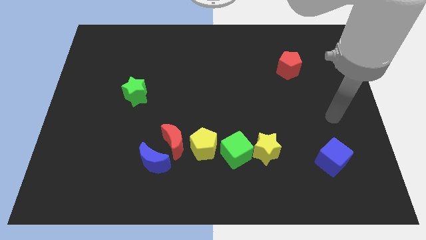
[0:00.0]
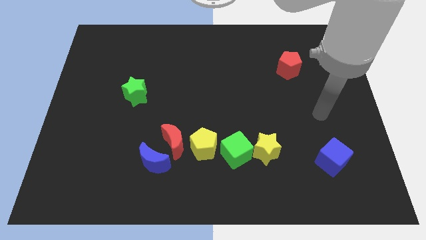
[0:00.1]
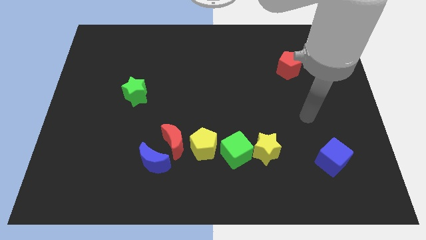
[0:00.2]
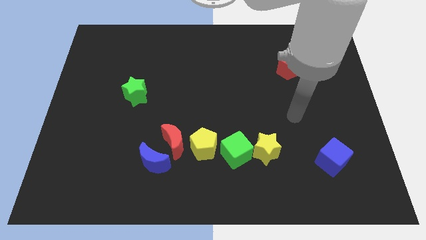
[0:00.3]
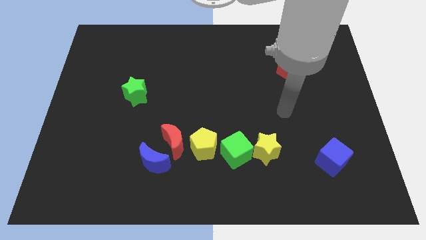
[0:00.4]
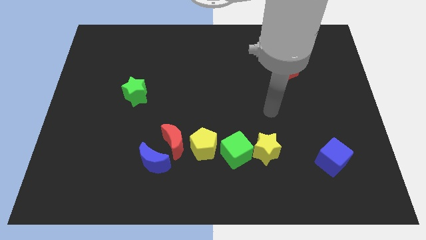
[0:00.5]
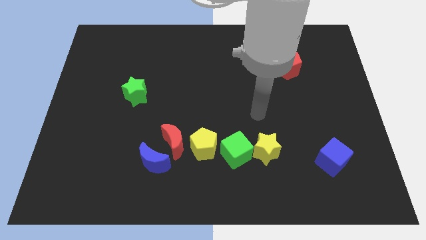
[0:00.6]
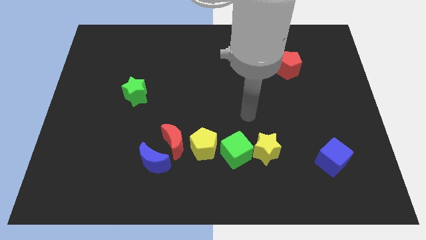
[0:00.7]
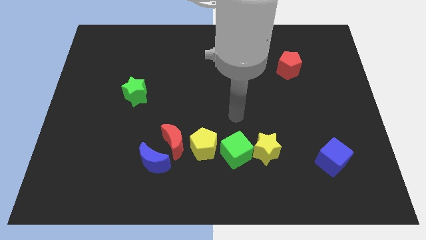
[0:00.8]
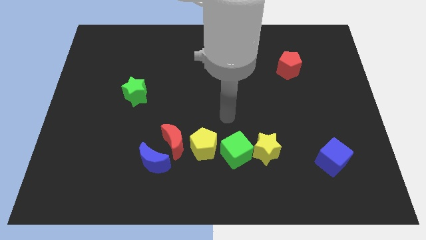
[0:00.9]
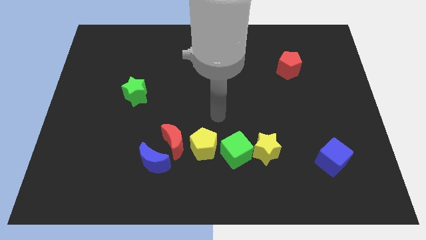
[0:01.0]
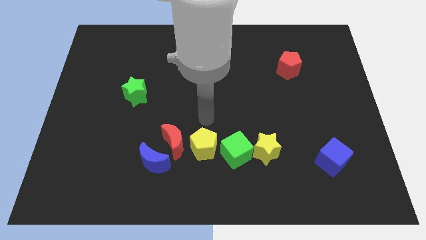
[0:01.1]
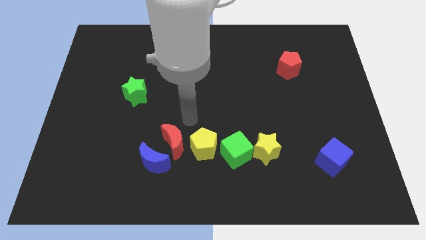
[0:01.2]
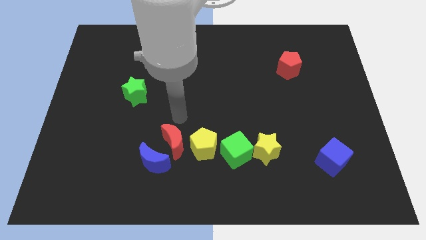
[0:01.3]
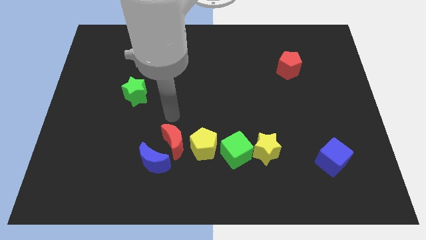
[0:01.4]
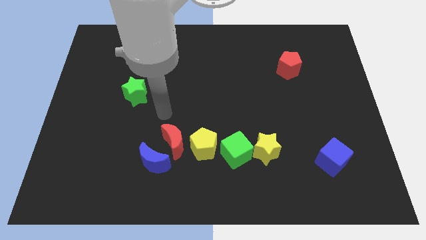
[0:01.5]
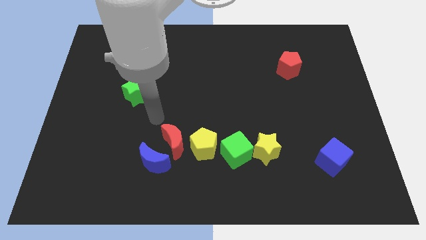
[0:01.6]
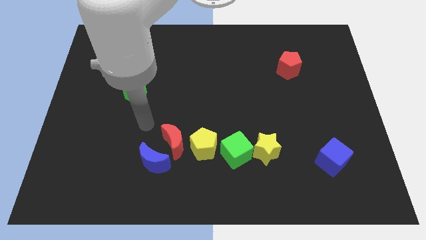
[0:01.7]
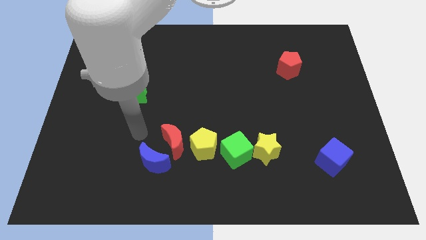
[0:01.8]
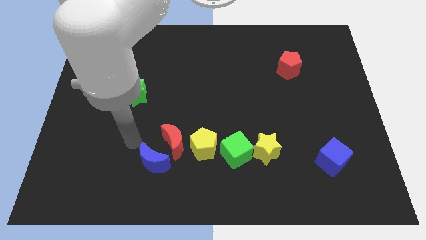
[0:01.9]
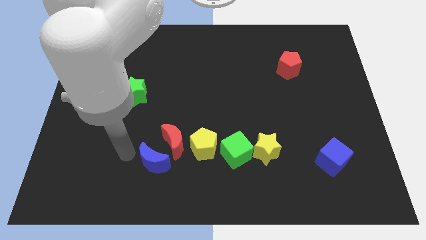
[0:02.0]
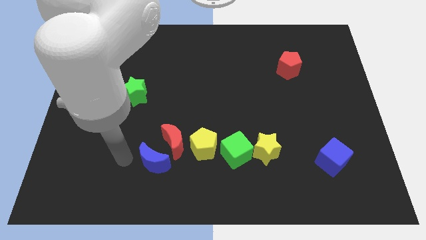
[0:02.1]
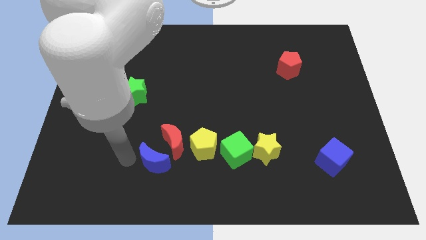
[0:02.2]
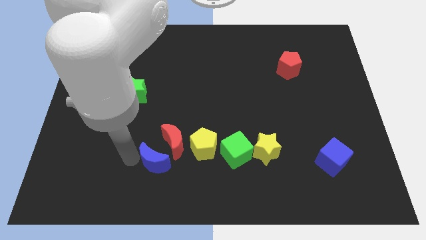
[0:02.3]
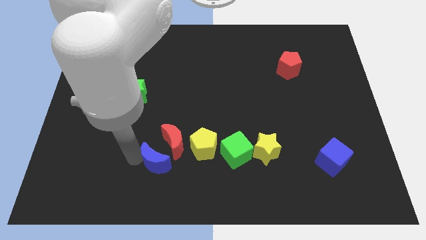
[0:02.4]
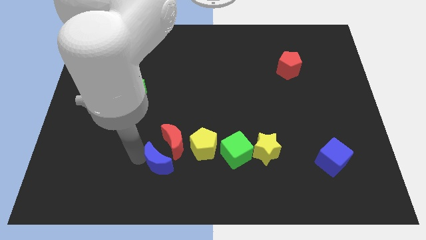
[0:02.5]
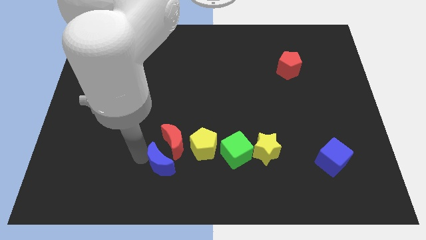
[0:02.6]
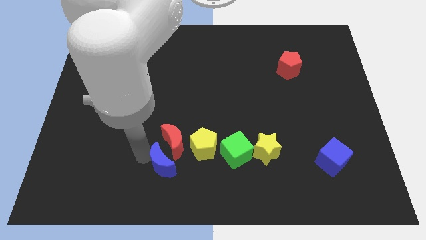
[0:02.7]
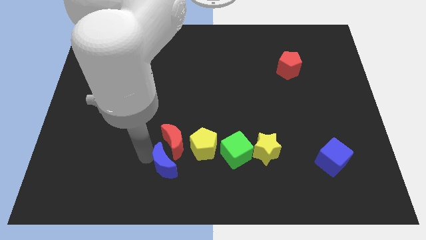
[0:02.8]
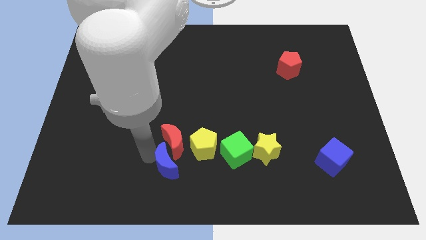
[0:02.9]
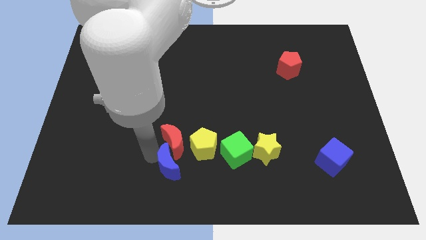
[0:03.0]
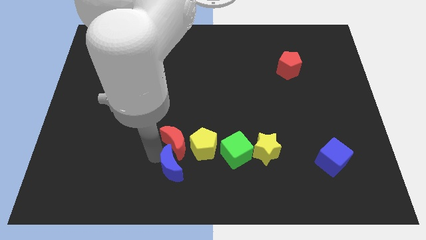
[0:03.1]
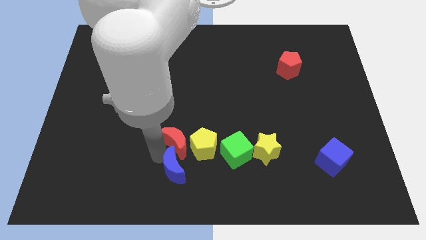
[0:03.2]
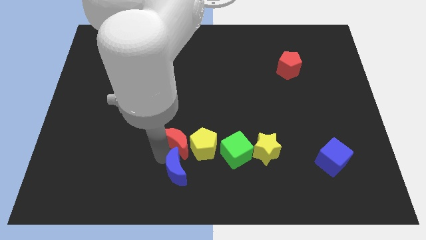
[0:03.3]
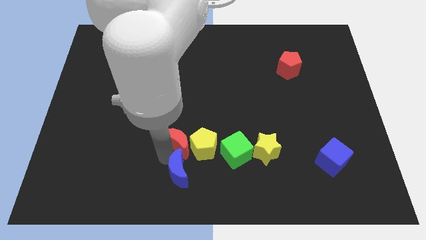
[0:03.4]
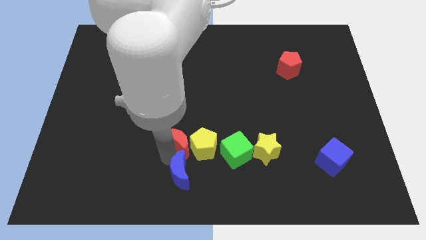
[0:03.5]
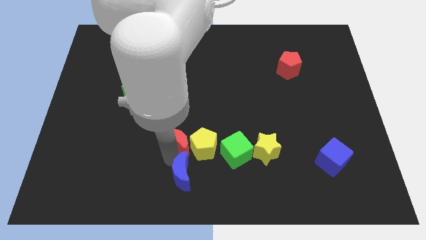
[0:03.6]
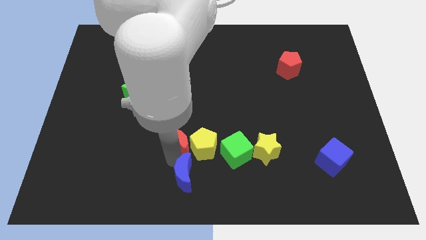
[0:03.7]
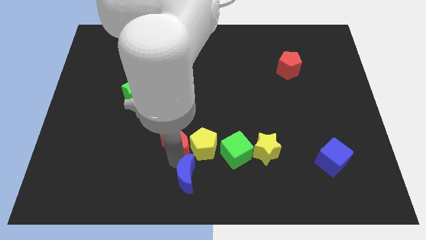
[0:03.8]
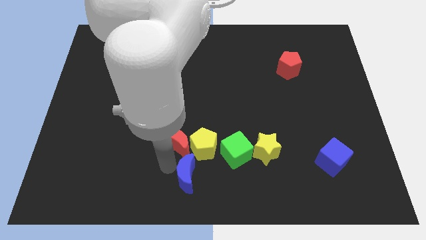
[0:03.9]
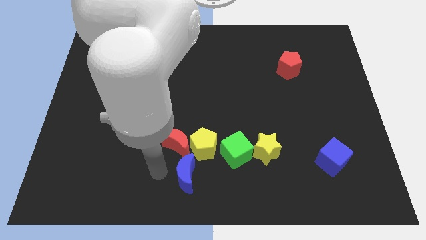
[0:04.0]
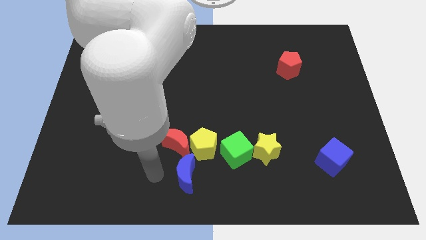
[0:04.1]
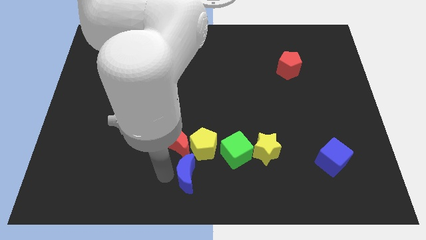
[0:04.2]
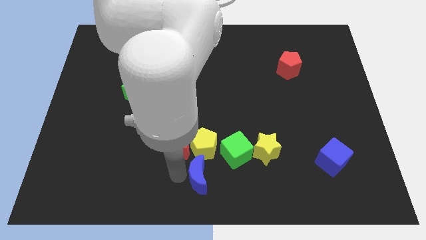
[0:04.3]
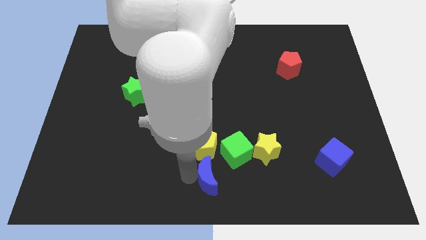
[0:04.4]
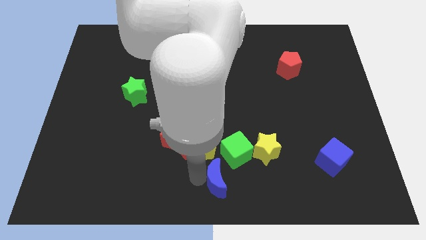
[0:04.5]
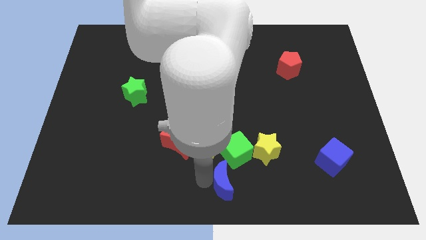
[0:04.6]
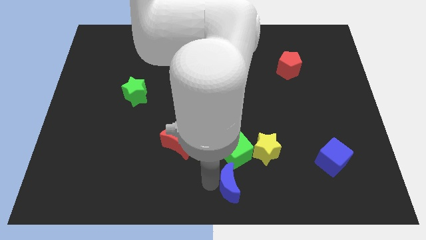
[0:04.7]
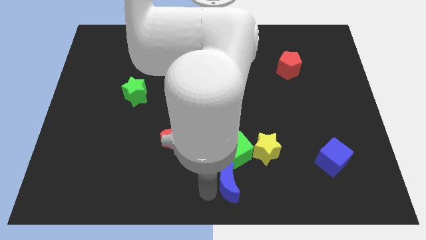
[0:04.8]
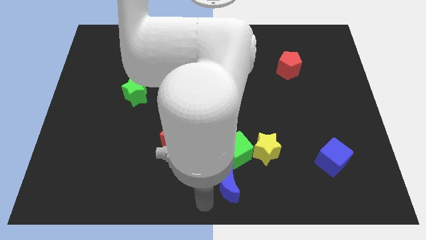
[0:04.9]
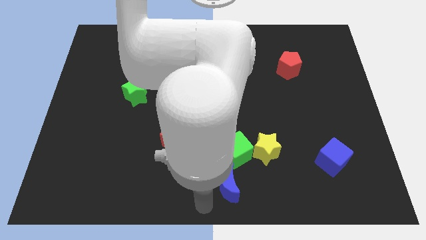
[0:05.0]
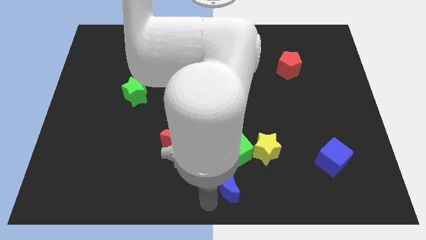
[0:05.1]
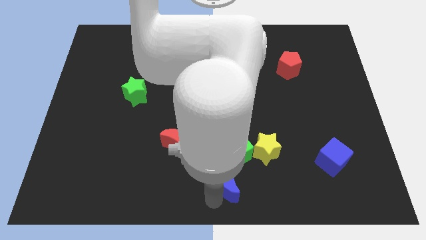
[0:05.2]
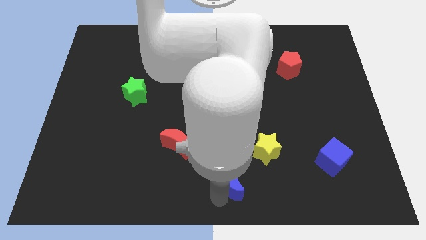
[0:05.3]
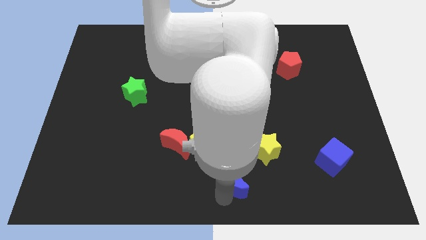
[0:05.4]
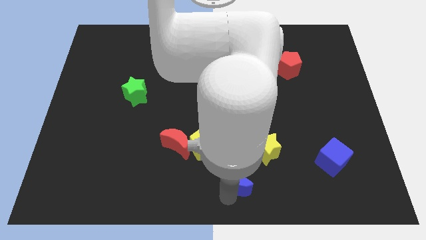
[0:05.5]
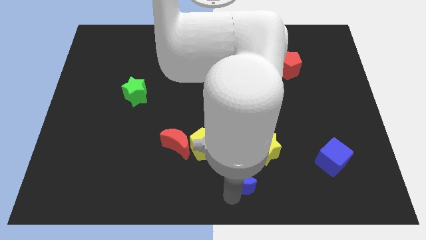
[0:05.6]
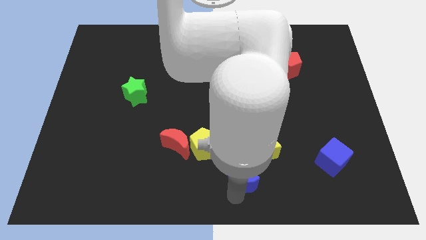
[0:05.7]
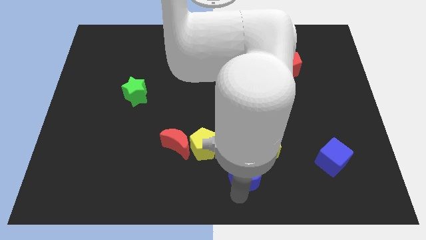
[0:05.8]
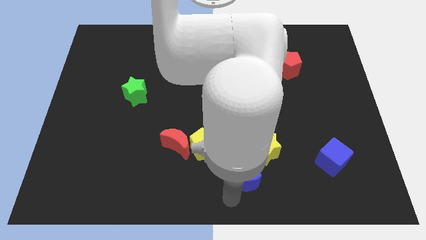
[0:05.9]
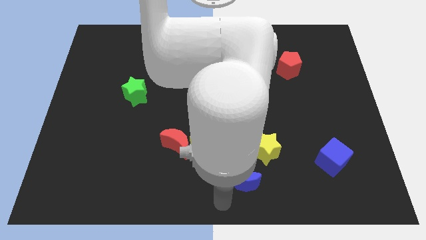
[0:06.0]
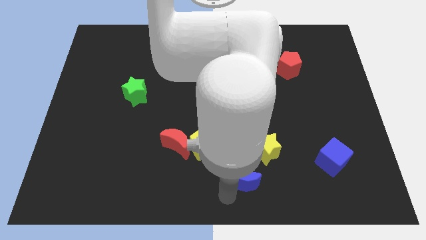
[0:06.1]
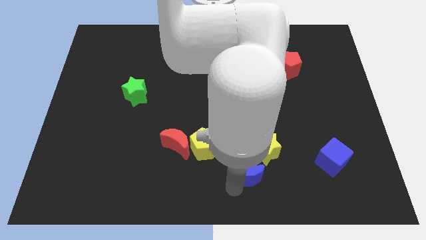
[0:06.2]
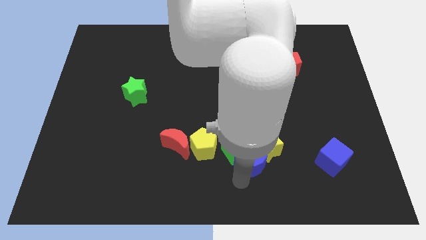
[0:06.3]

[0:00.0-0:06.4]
slide the blue moon towards the yellow star
